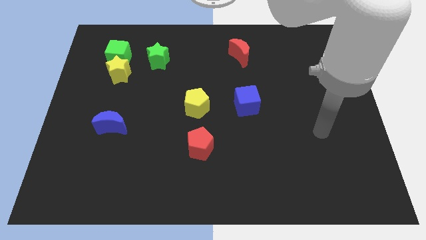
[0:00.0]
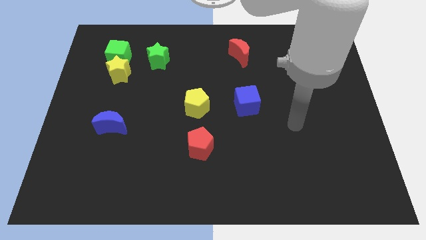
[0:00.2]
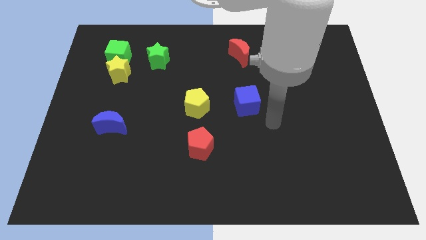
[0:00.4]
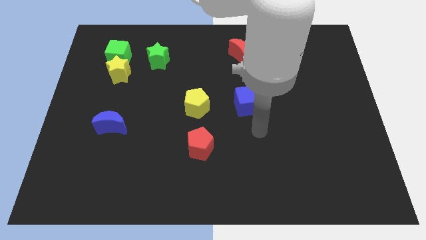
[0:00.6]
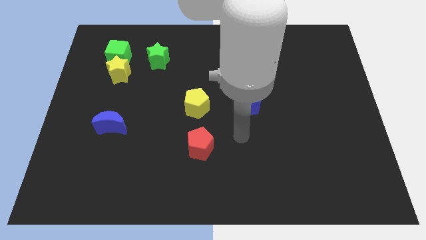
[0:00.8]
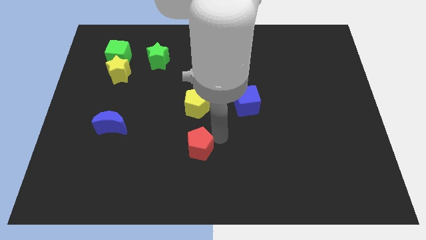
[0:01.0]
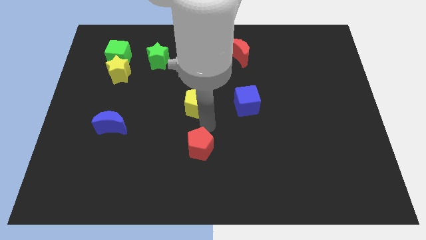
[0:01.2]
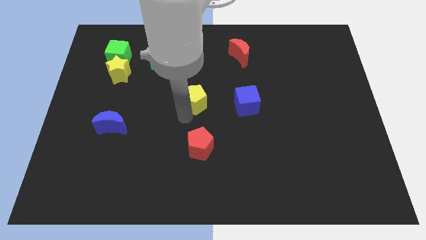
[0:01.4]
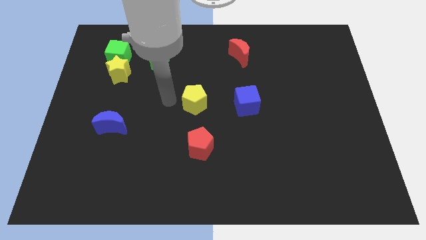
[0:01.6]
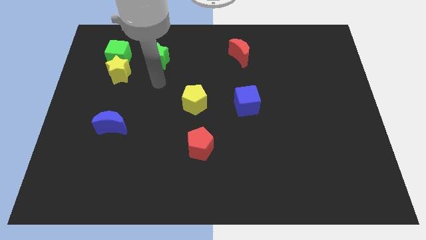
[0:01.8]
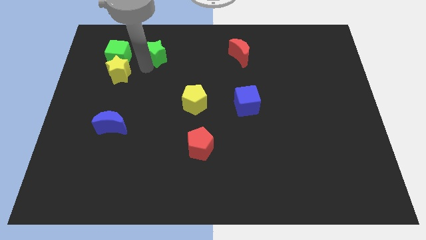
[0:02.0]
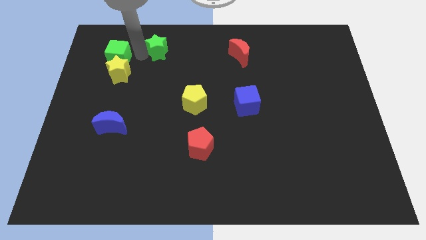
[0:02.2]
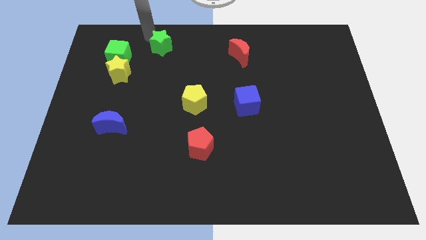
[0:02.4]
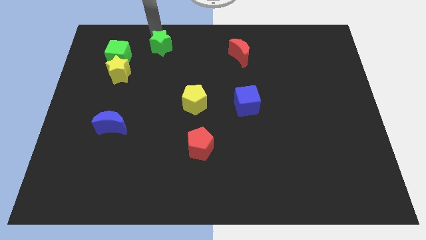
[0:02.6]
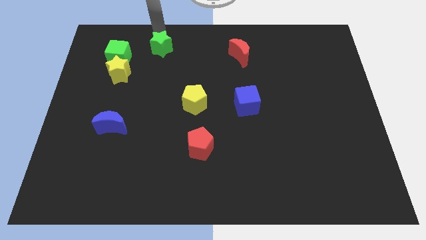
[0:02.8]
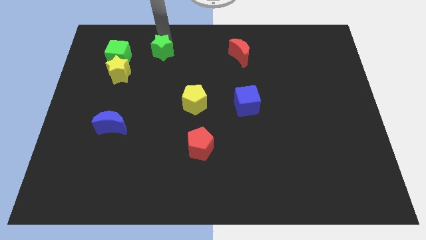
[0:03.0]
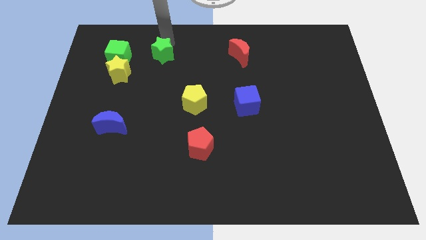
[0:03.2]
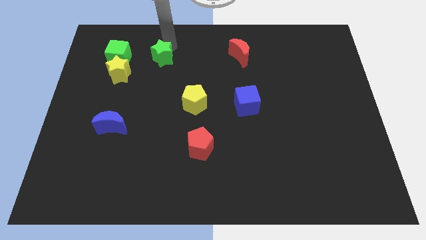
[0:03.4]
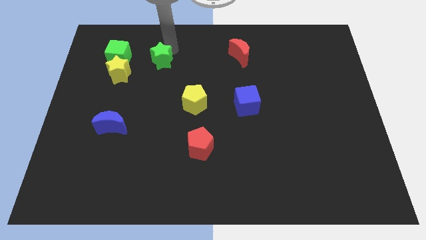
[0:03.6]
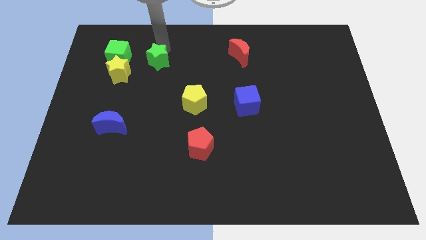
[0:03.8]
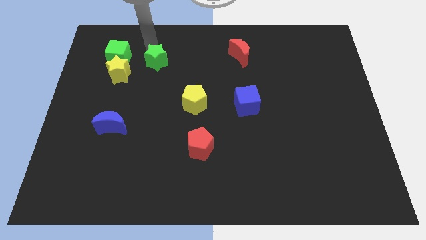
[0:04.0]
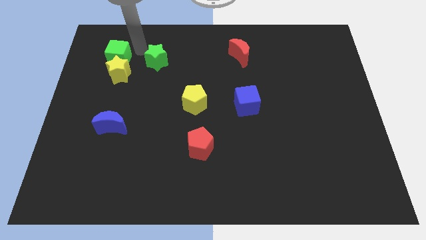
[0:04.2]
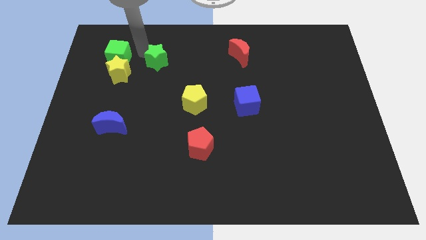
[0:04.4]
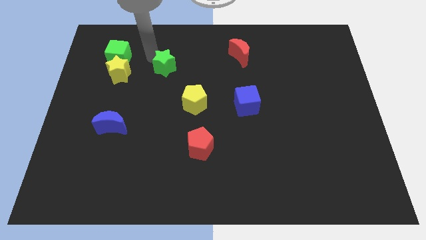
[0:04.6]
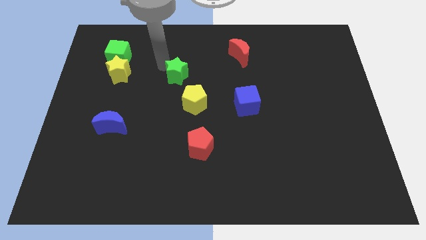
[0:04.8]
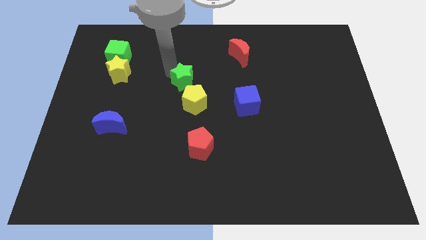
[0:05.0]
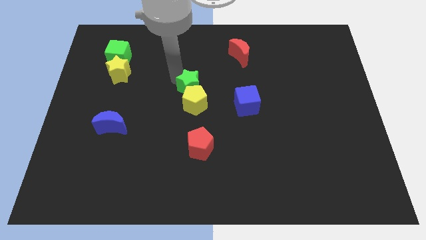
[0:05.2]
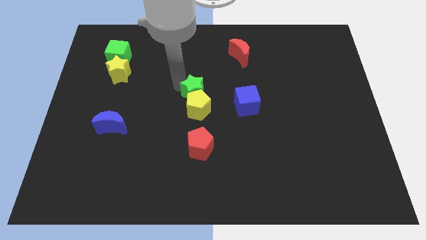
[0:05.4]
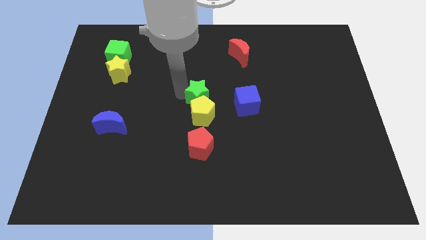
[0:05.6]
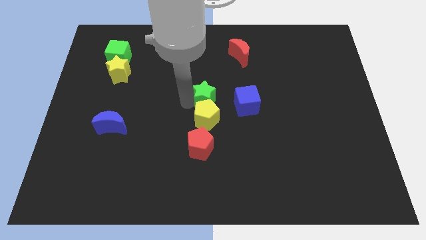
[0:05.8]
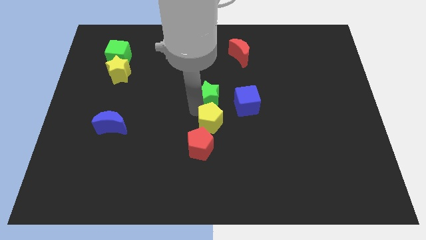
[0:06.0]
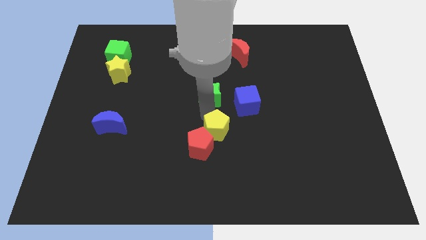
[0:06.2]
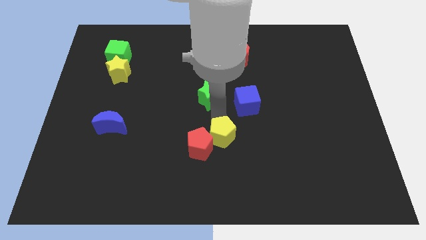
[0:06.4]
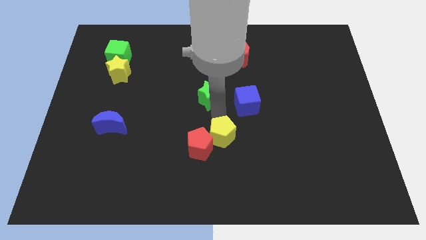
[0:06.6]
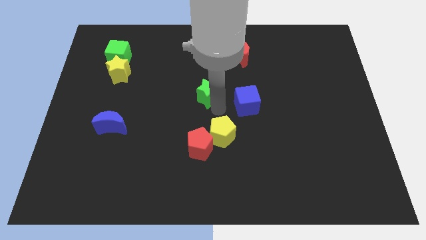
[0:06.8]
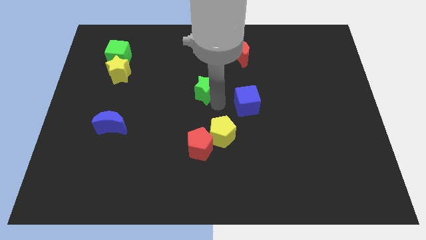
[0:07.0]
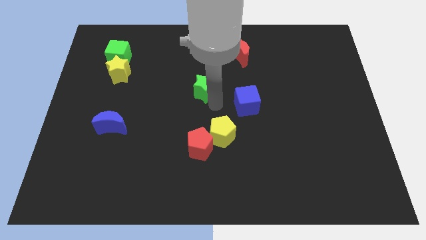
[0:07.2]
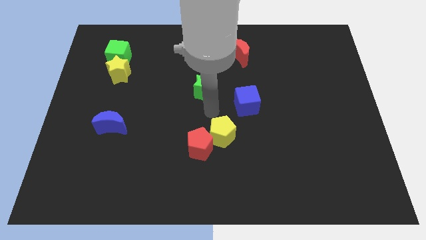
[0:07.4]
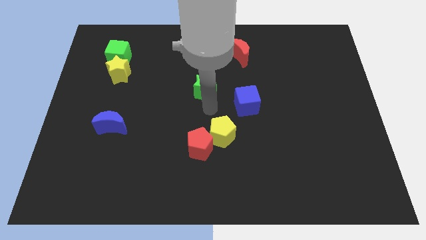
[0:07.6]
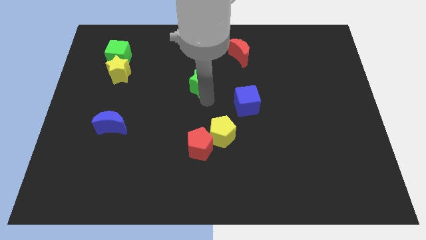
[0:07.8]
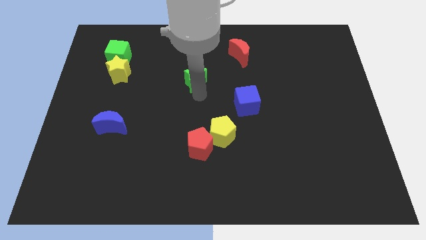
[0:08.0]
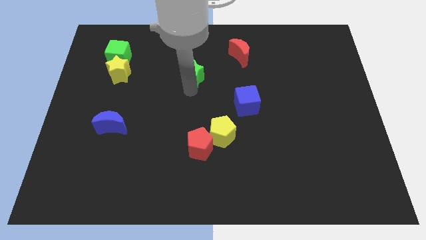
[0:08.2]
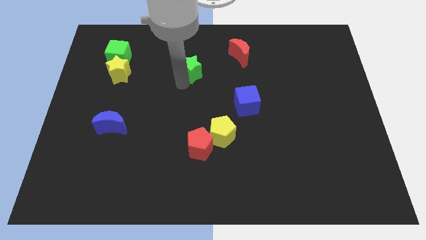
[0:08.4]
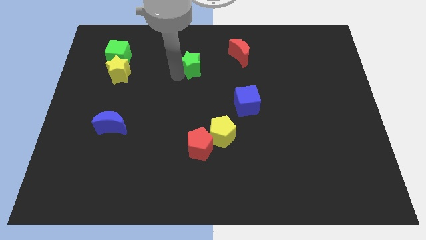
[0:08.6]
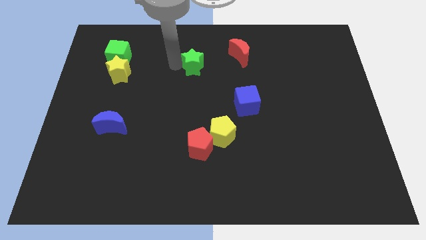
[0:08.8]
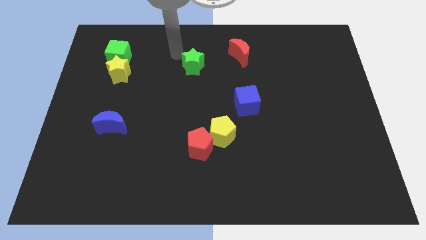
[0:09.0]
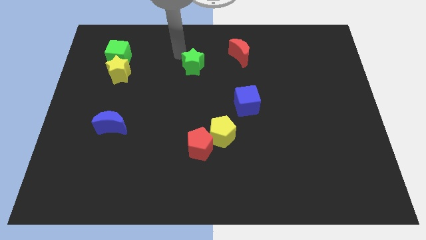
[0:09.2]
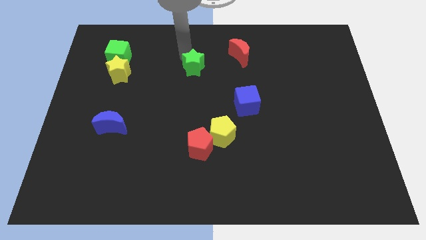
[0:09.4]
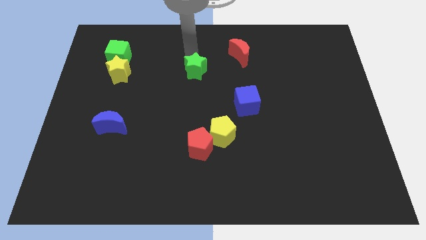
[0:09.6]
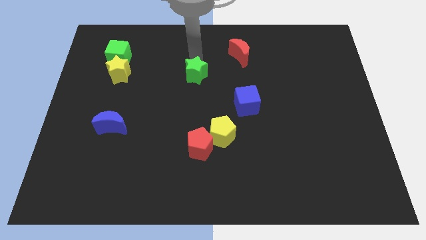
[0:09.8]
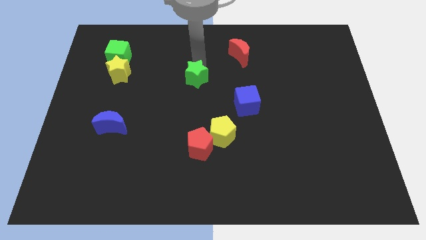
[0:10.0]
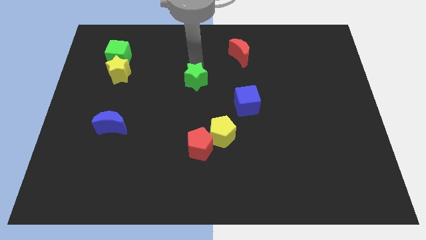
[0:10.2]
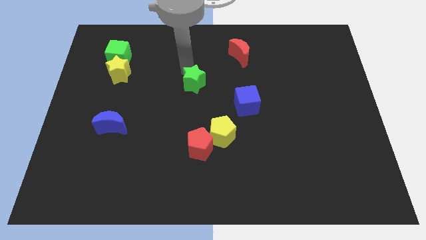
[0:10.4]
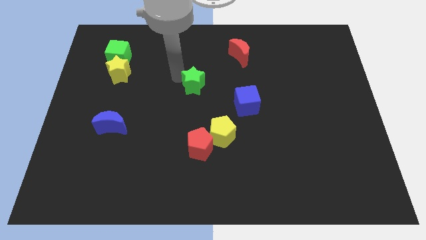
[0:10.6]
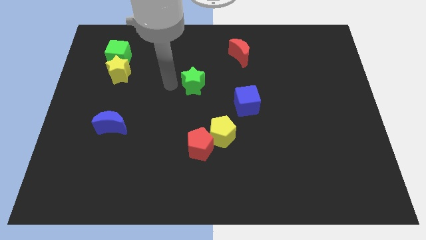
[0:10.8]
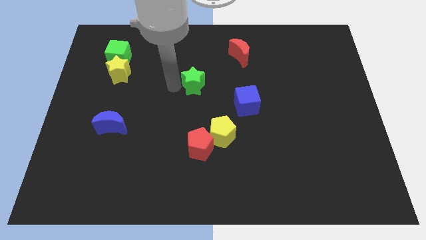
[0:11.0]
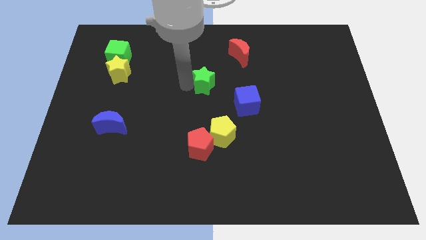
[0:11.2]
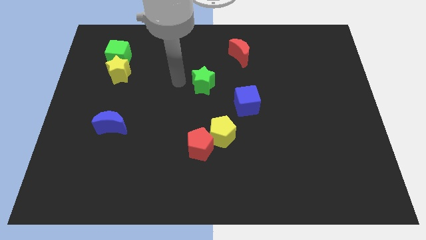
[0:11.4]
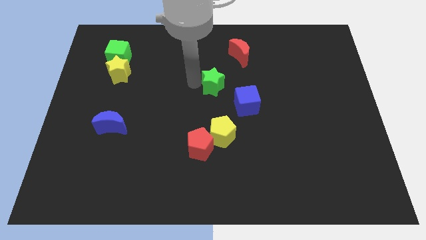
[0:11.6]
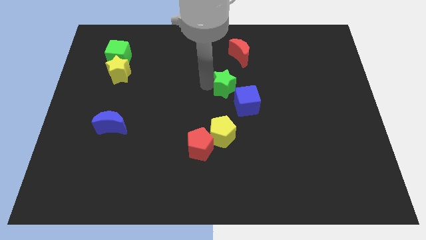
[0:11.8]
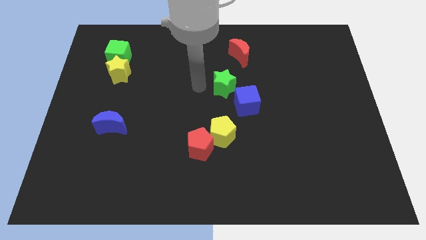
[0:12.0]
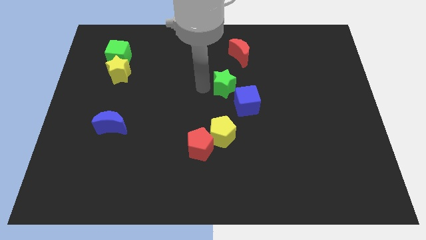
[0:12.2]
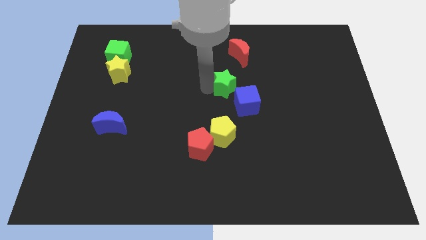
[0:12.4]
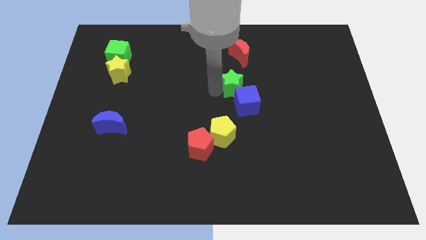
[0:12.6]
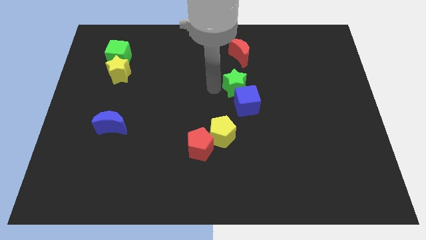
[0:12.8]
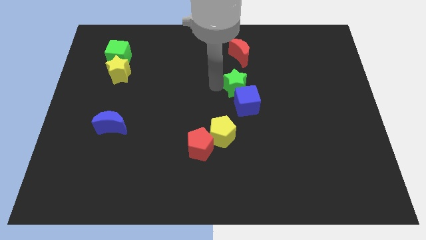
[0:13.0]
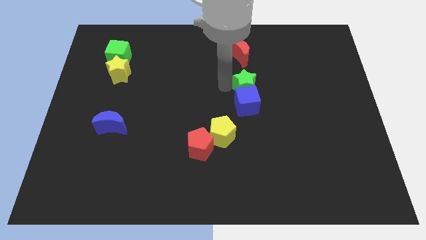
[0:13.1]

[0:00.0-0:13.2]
slide the green star to the top right side of the blue cube
